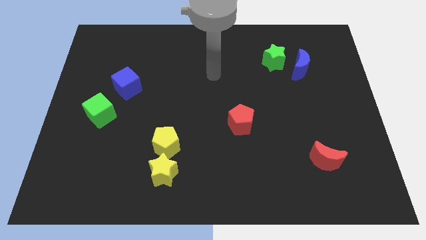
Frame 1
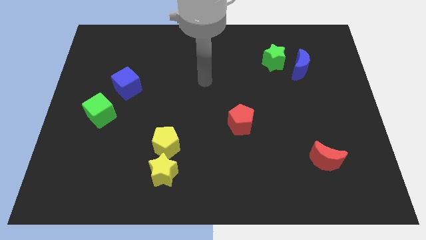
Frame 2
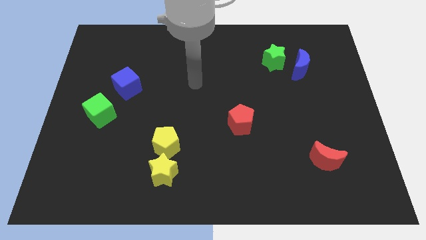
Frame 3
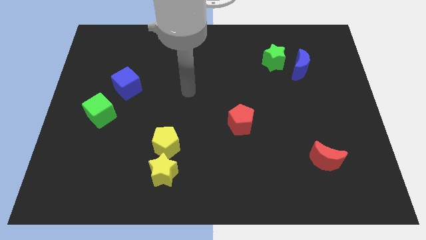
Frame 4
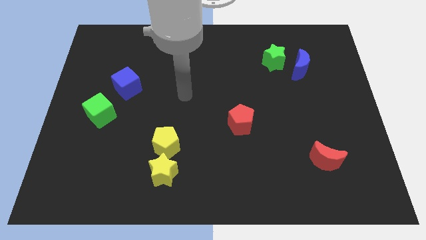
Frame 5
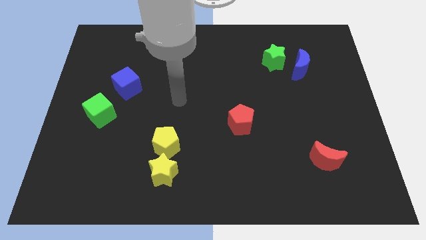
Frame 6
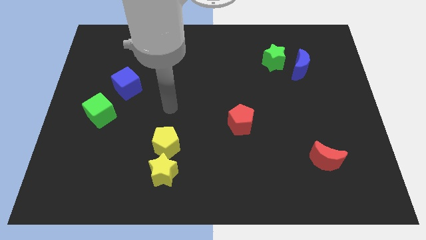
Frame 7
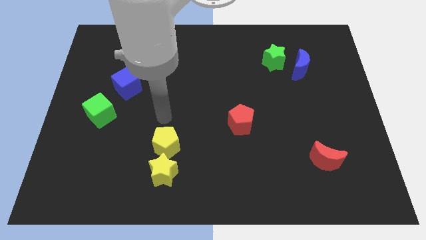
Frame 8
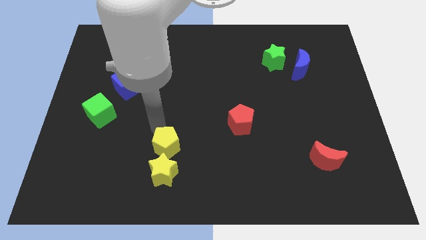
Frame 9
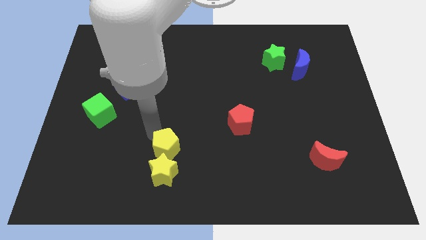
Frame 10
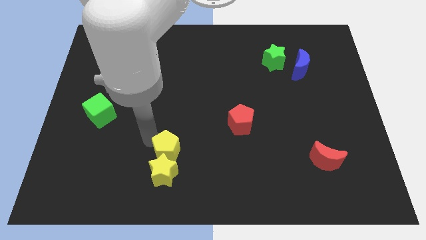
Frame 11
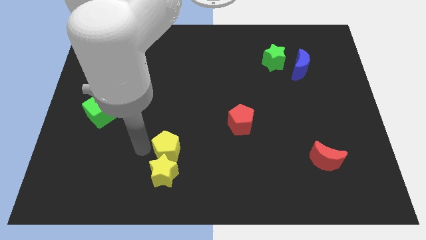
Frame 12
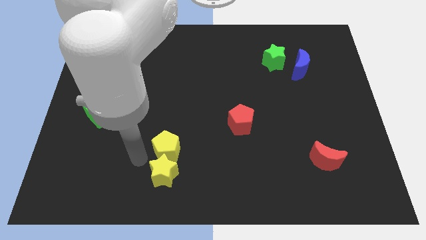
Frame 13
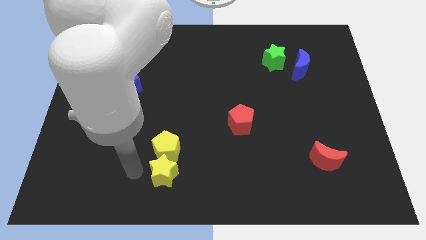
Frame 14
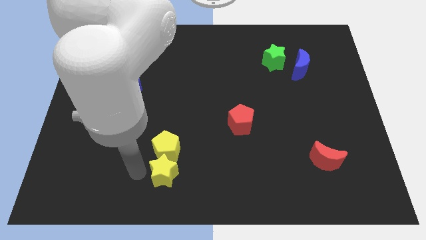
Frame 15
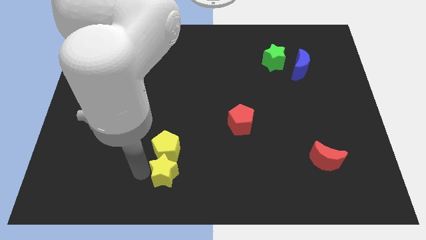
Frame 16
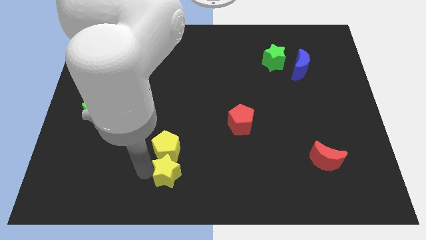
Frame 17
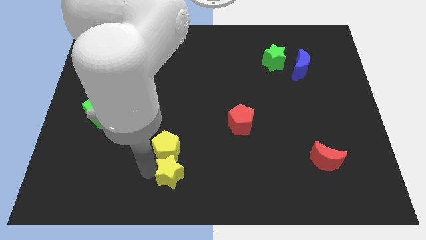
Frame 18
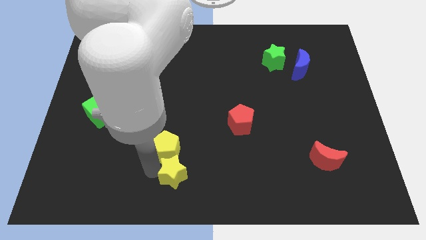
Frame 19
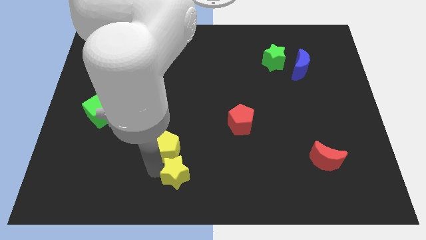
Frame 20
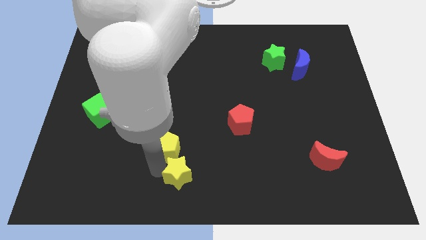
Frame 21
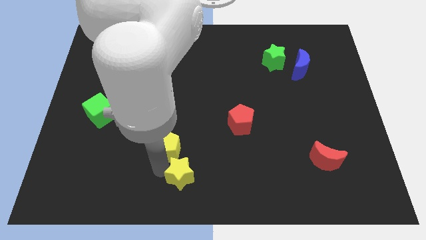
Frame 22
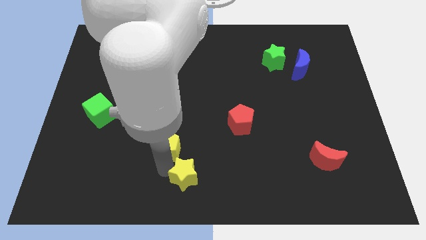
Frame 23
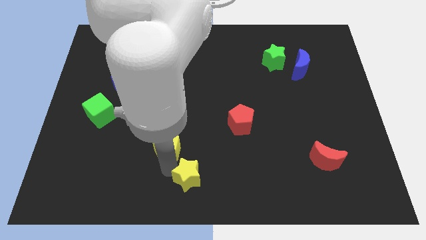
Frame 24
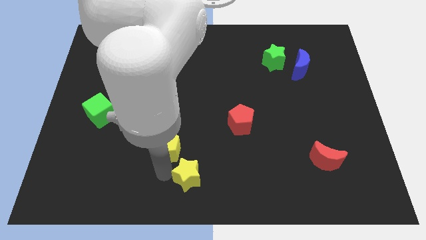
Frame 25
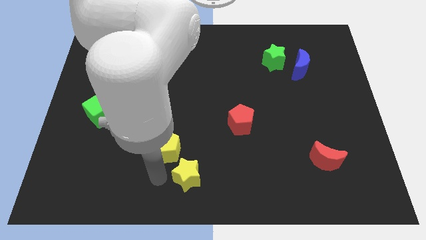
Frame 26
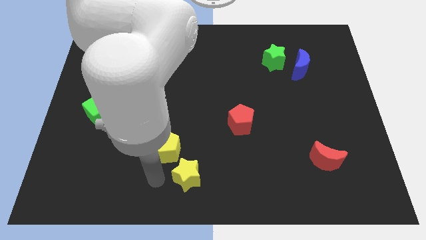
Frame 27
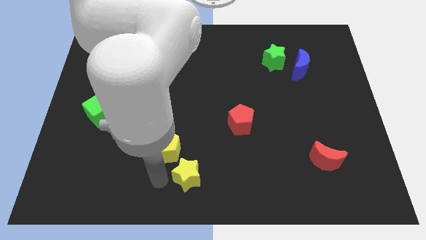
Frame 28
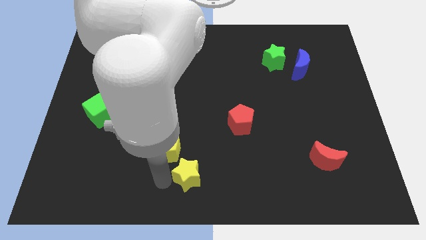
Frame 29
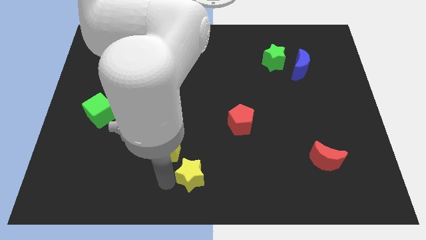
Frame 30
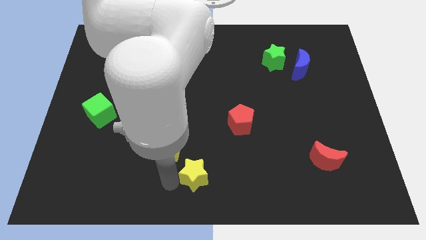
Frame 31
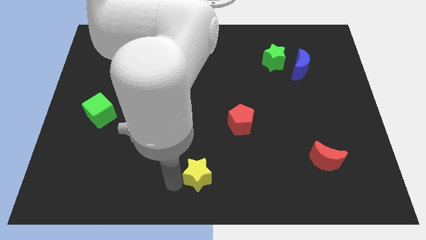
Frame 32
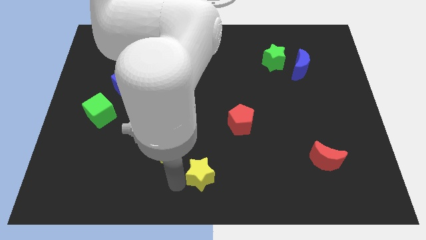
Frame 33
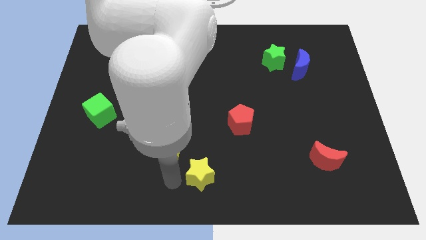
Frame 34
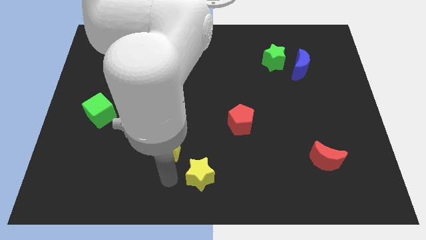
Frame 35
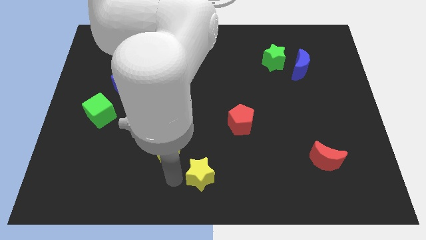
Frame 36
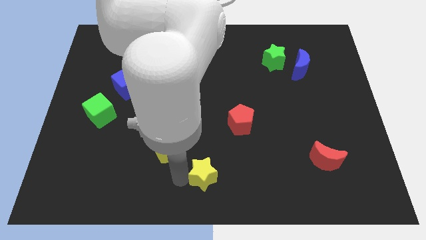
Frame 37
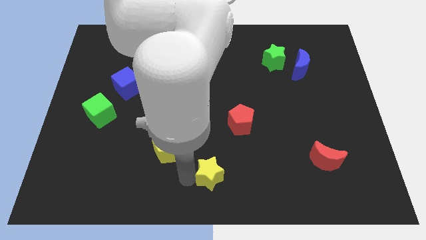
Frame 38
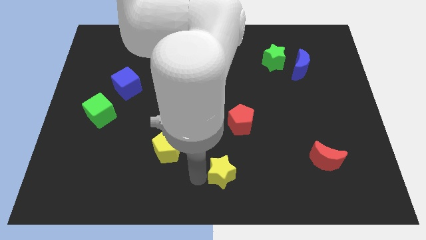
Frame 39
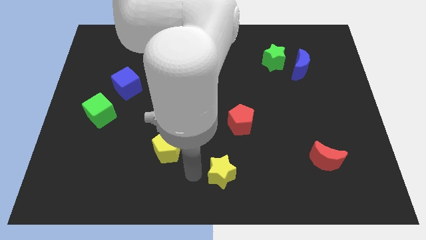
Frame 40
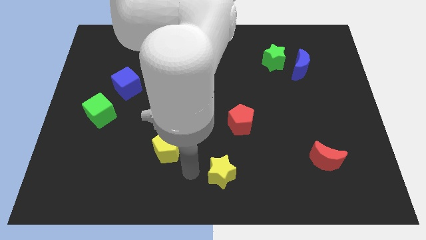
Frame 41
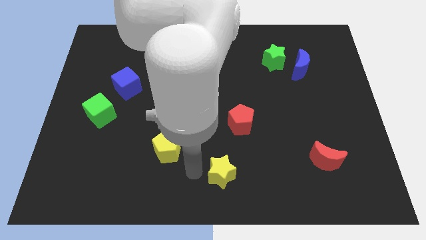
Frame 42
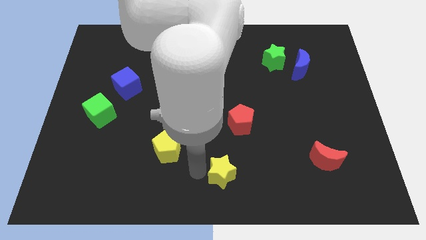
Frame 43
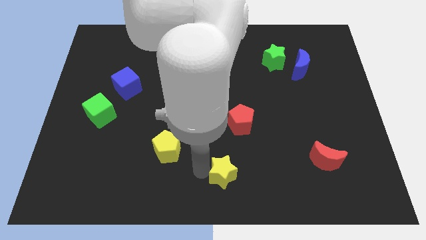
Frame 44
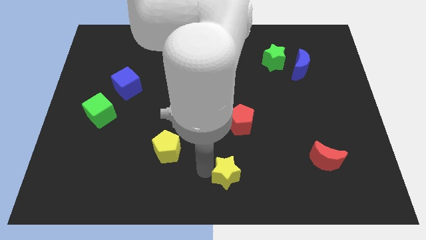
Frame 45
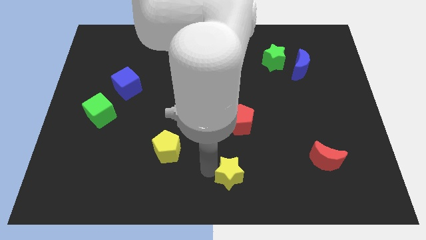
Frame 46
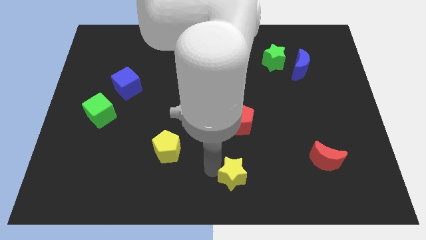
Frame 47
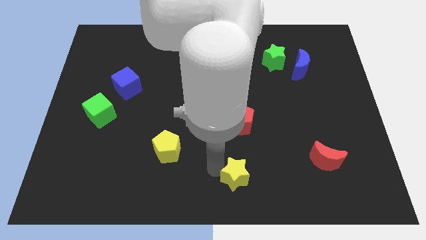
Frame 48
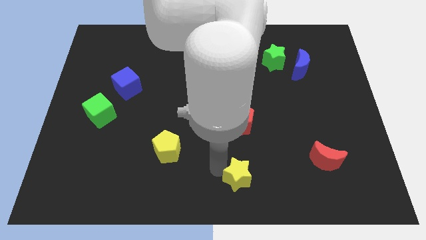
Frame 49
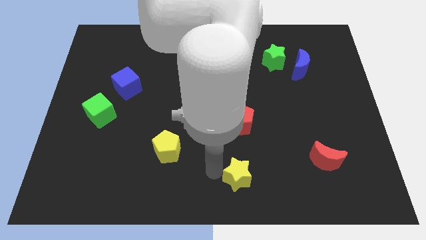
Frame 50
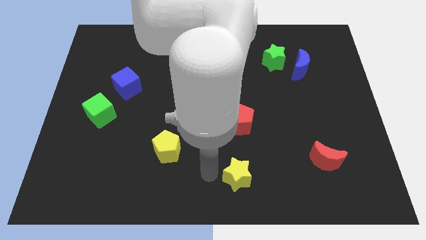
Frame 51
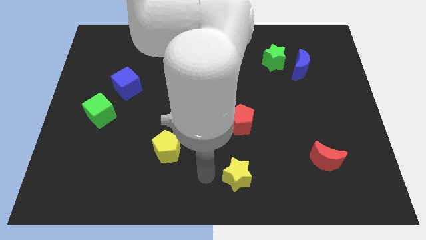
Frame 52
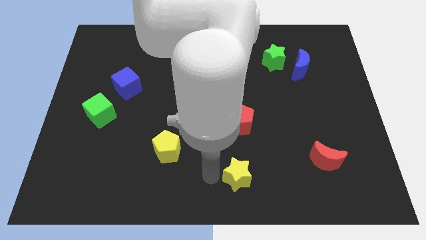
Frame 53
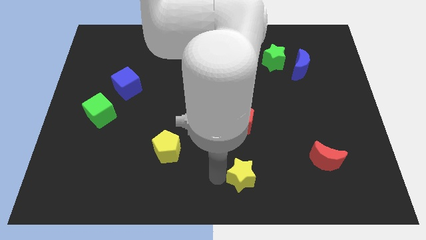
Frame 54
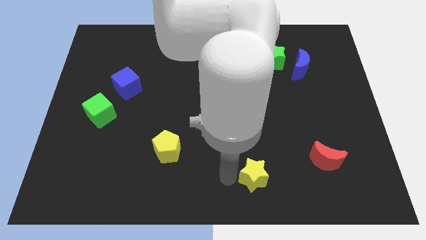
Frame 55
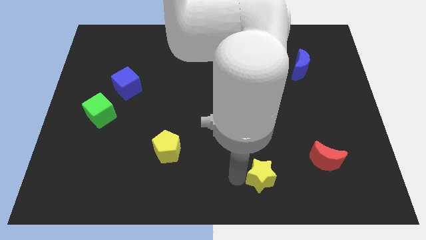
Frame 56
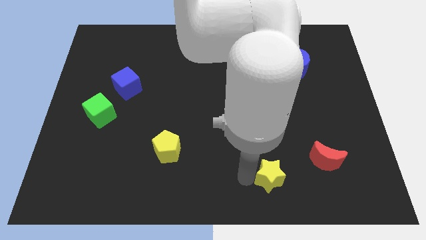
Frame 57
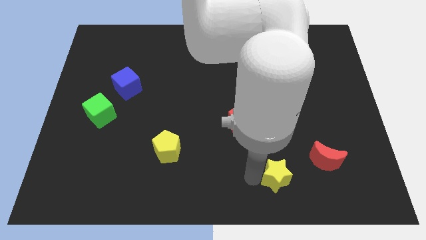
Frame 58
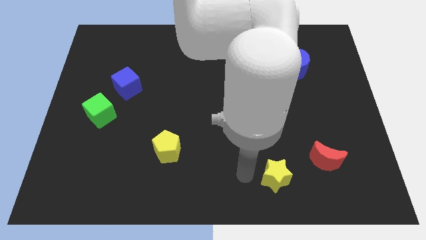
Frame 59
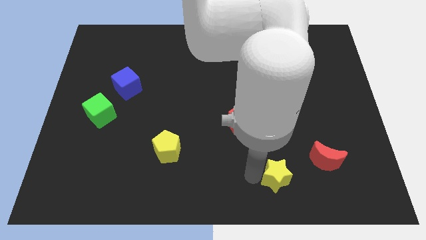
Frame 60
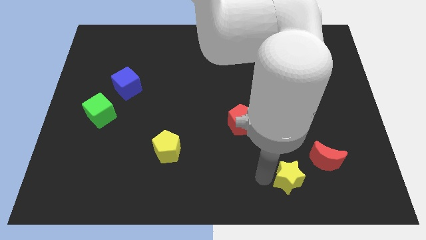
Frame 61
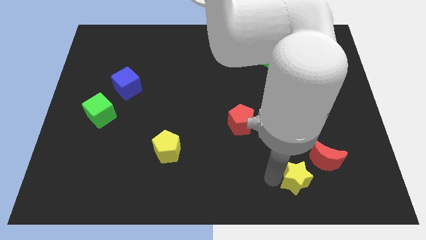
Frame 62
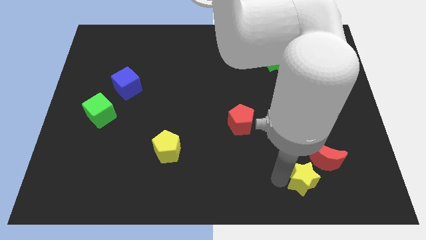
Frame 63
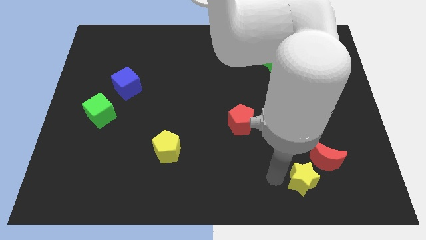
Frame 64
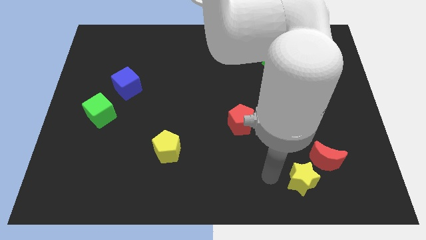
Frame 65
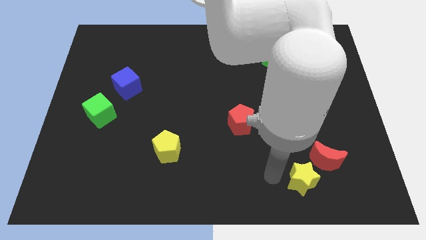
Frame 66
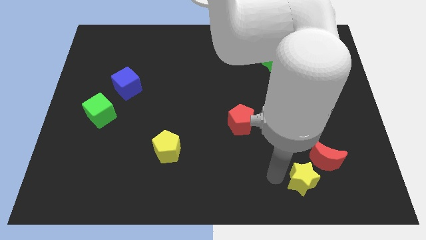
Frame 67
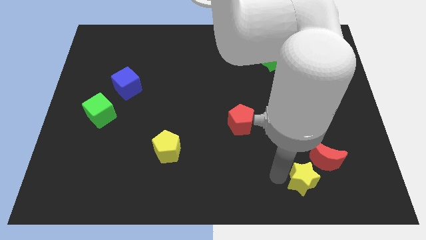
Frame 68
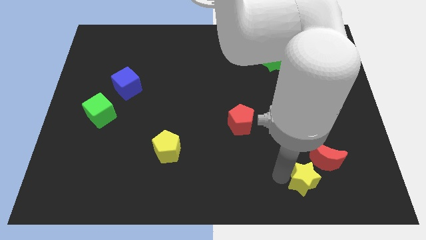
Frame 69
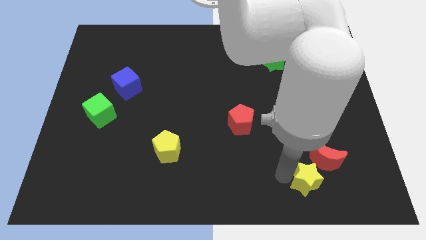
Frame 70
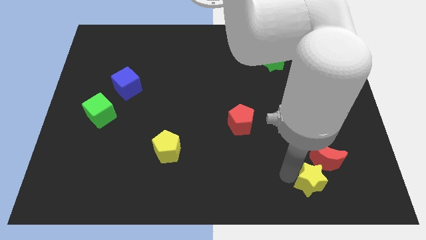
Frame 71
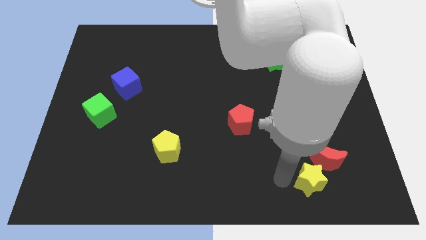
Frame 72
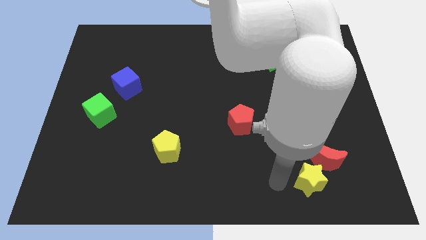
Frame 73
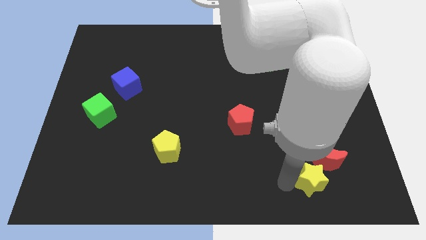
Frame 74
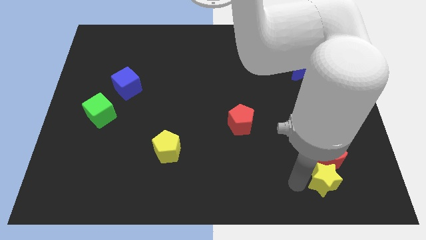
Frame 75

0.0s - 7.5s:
slide the yellow star diagonally down and to the right of the red moon
